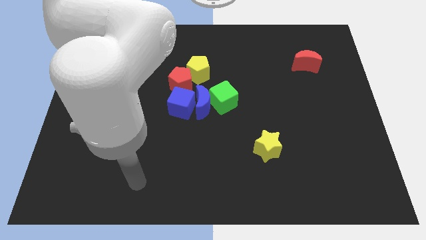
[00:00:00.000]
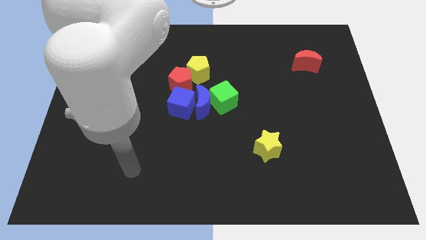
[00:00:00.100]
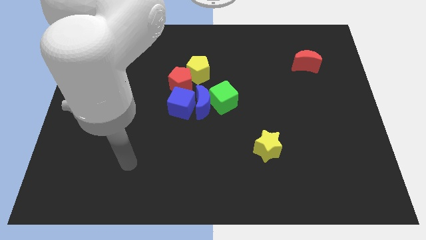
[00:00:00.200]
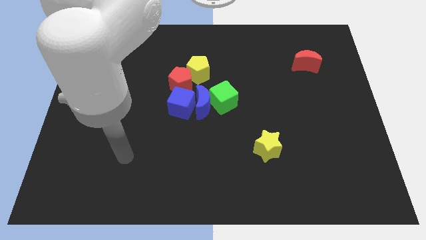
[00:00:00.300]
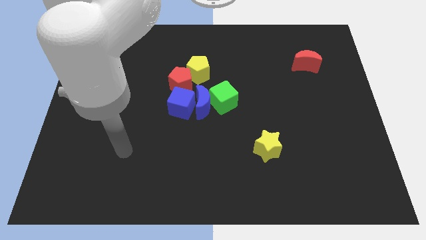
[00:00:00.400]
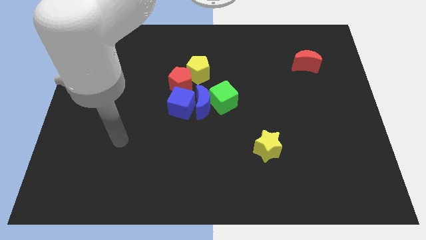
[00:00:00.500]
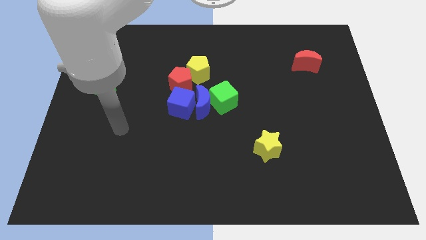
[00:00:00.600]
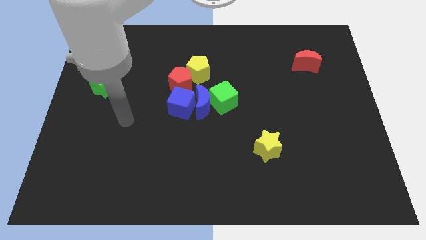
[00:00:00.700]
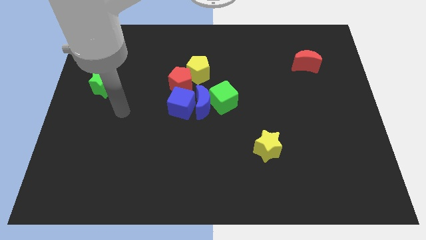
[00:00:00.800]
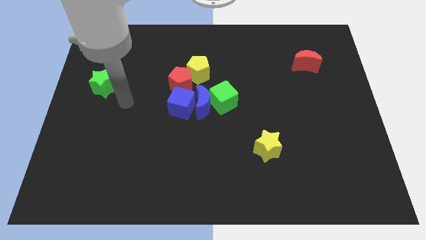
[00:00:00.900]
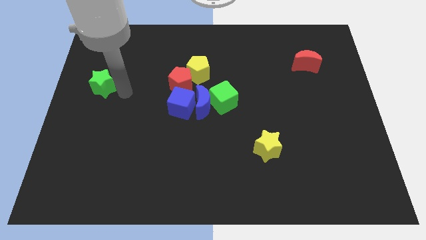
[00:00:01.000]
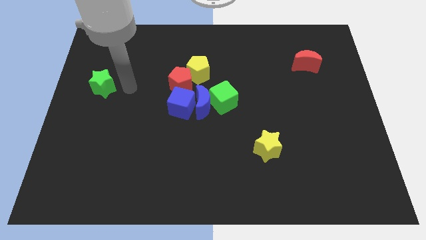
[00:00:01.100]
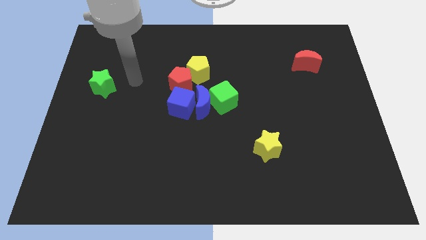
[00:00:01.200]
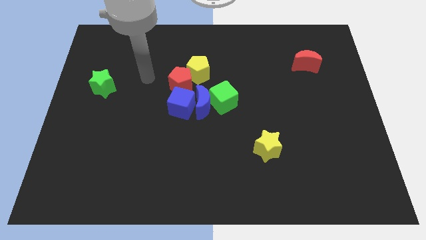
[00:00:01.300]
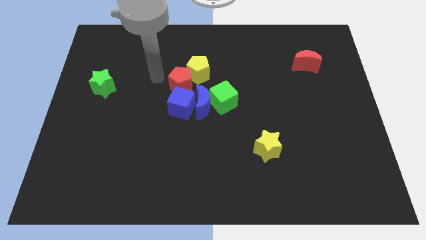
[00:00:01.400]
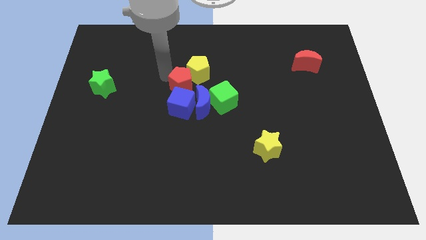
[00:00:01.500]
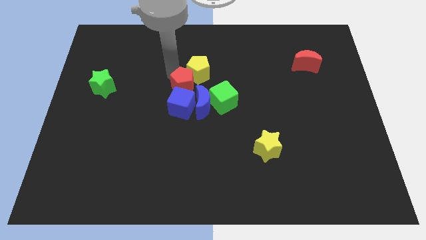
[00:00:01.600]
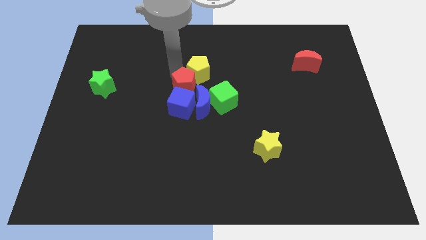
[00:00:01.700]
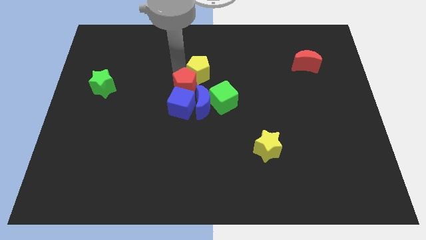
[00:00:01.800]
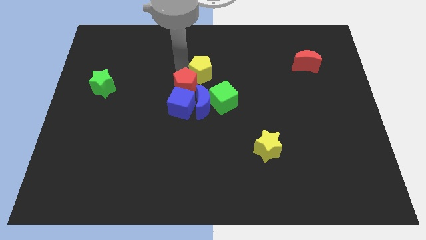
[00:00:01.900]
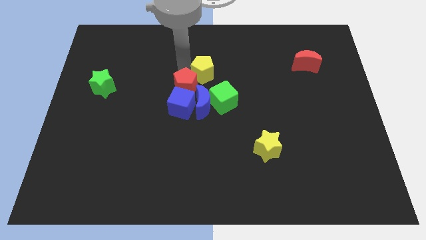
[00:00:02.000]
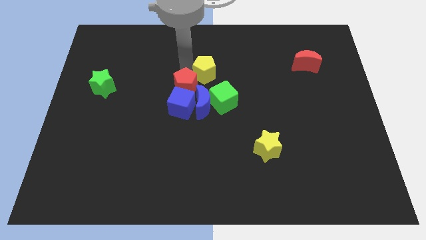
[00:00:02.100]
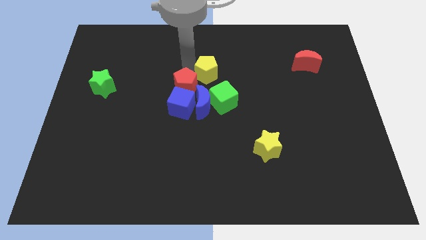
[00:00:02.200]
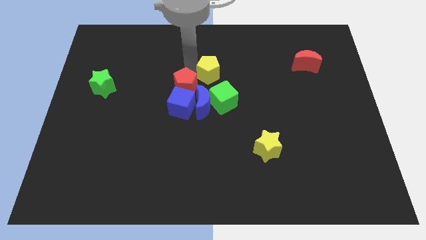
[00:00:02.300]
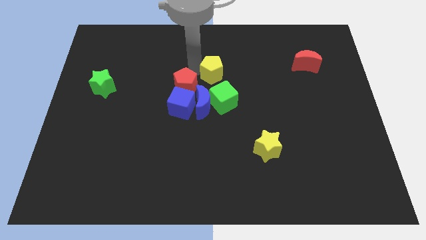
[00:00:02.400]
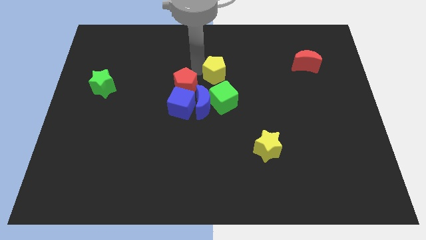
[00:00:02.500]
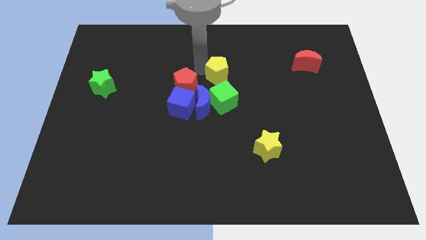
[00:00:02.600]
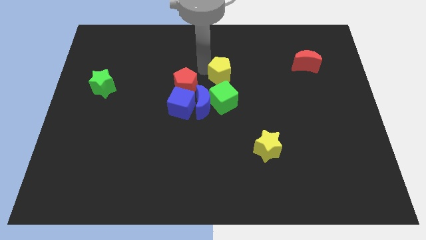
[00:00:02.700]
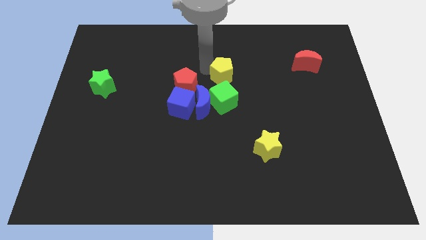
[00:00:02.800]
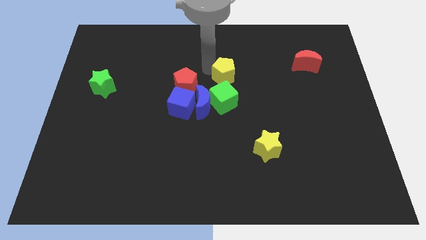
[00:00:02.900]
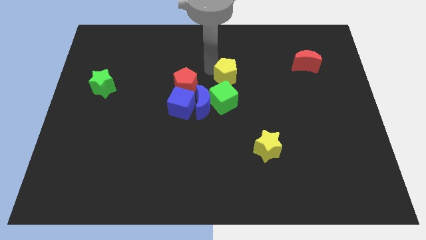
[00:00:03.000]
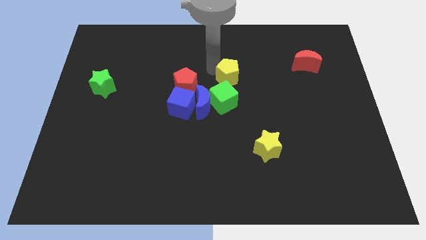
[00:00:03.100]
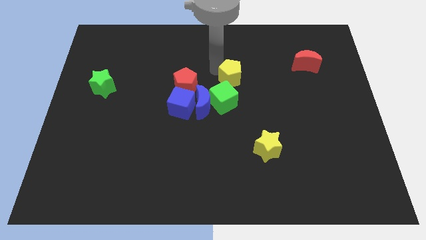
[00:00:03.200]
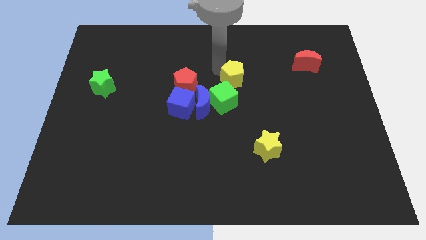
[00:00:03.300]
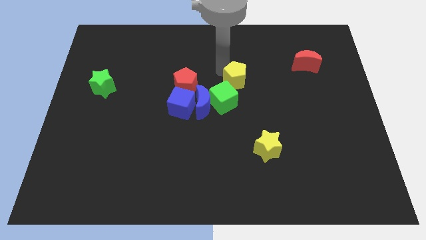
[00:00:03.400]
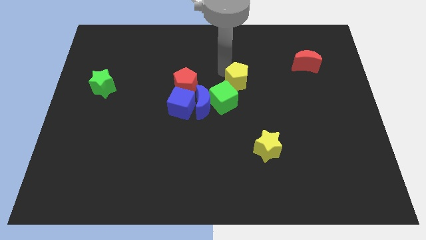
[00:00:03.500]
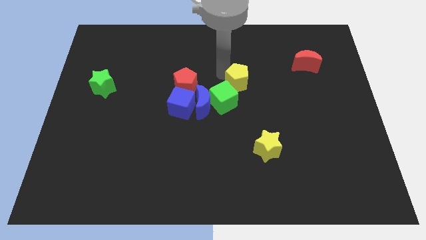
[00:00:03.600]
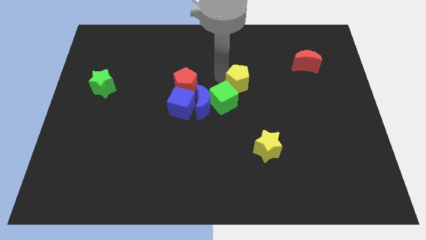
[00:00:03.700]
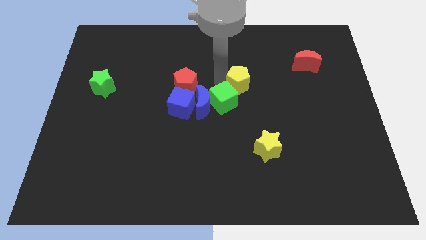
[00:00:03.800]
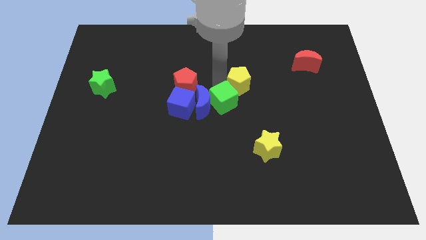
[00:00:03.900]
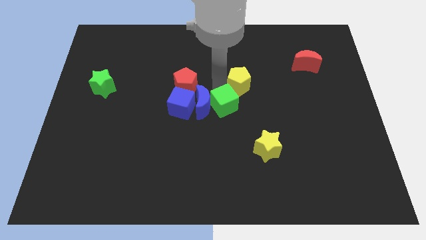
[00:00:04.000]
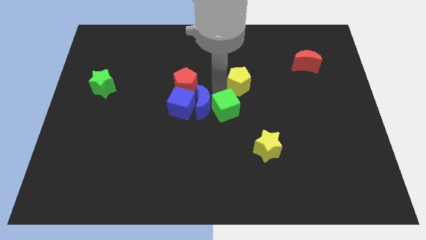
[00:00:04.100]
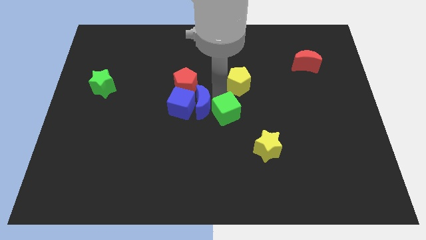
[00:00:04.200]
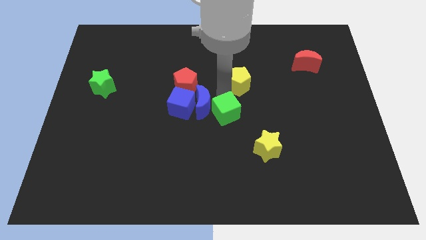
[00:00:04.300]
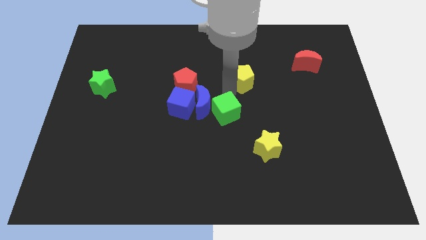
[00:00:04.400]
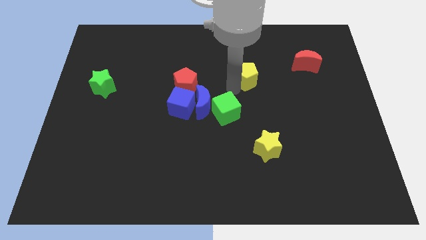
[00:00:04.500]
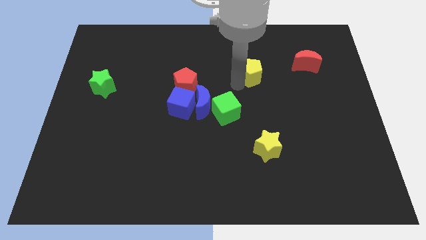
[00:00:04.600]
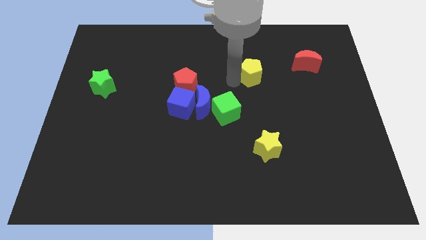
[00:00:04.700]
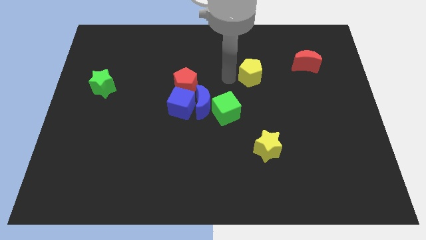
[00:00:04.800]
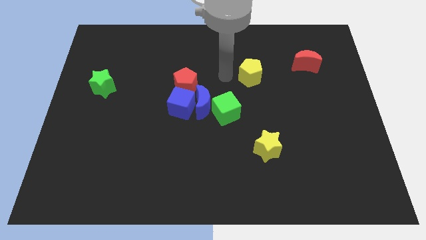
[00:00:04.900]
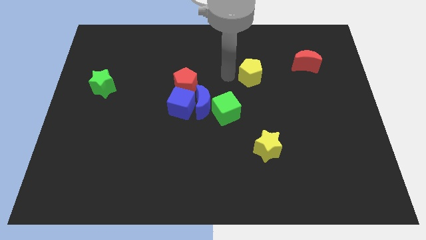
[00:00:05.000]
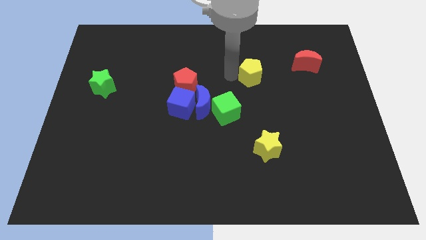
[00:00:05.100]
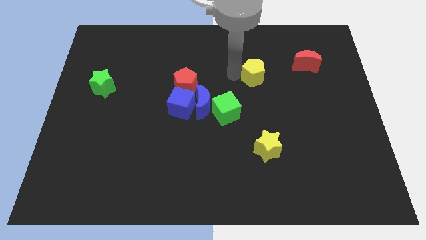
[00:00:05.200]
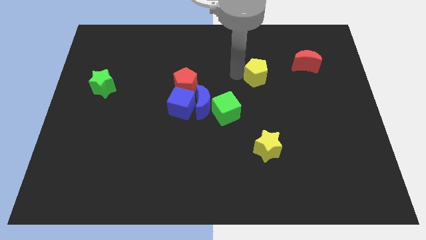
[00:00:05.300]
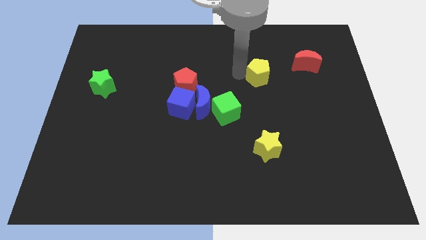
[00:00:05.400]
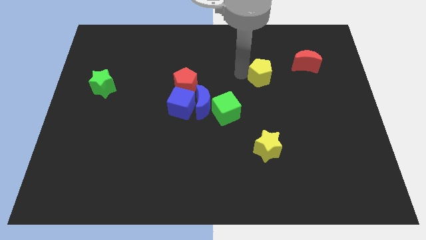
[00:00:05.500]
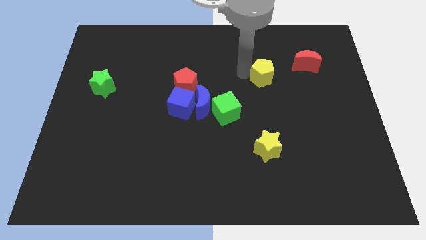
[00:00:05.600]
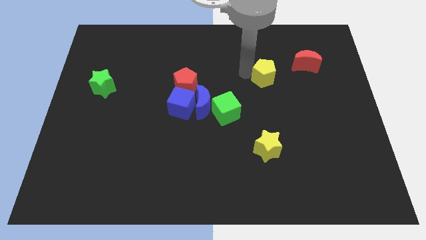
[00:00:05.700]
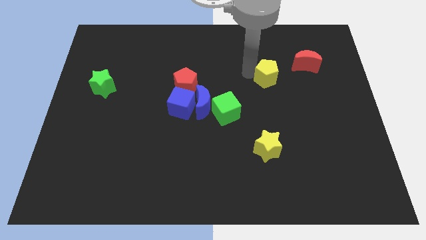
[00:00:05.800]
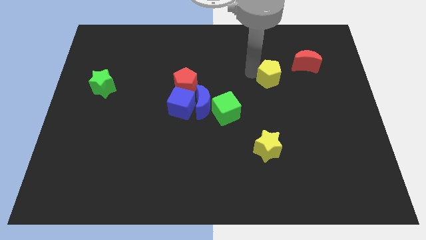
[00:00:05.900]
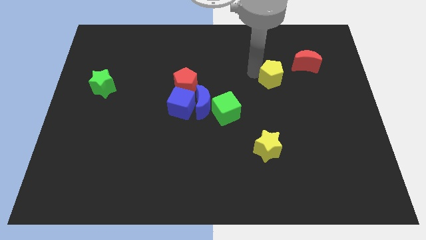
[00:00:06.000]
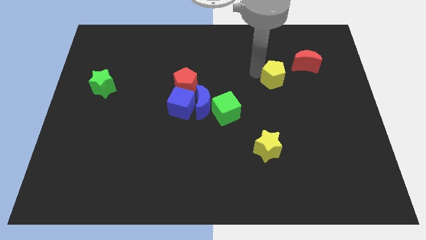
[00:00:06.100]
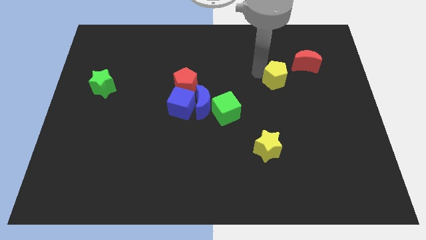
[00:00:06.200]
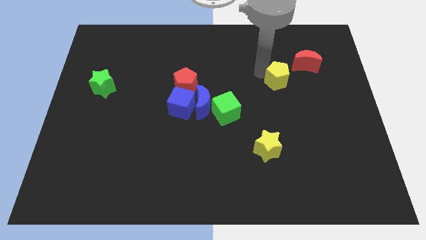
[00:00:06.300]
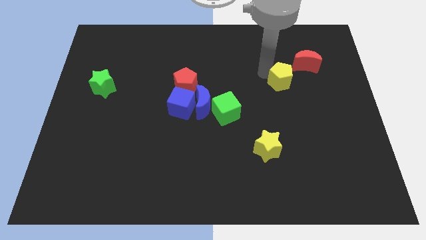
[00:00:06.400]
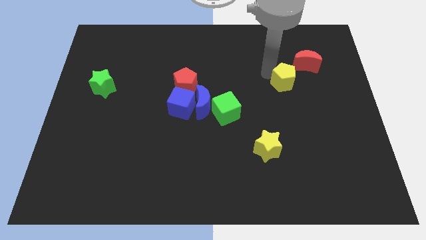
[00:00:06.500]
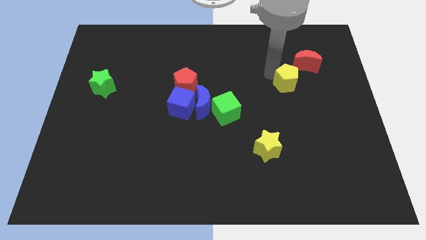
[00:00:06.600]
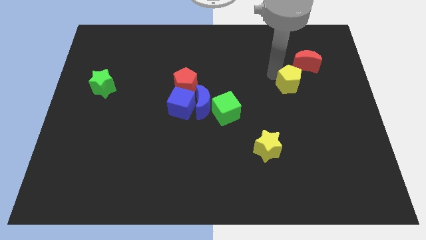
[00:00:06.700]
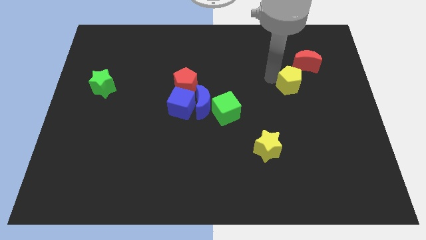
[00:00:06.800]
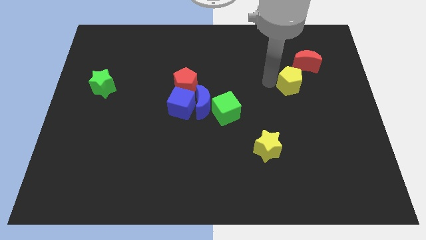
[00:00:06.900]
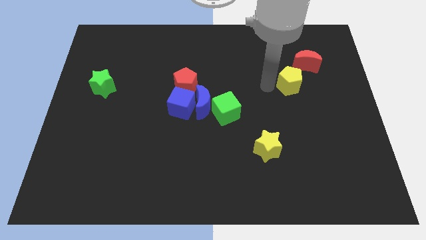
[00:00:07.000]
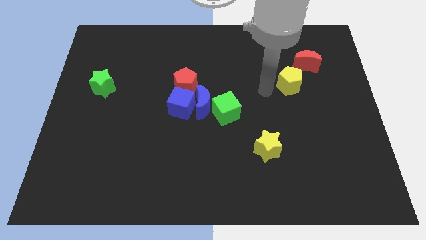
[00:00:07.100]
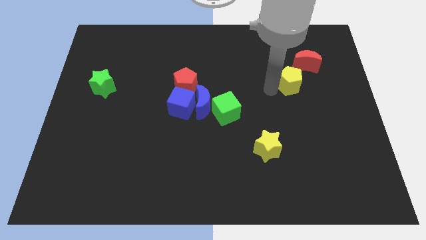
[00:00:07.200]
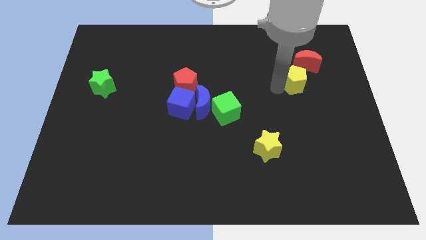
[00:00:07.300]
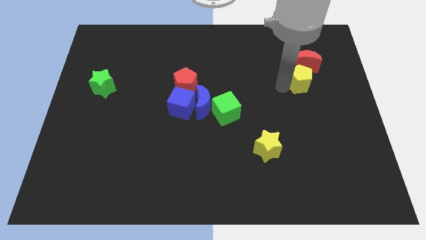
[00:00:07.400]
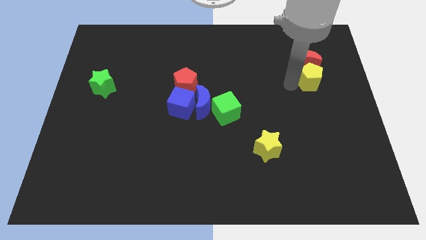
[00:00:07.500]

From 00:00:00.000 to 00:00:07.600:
push the yellow pentagon diagonally down and to the right of the red moon
